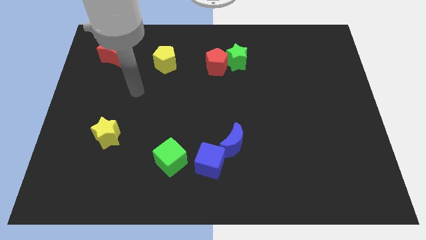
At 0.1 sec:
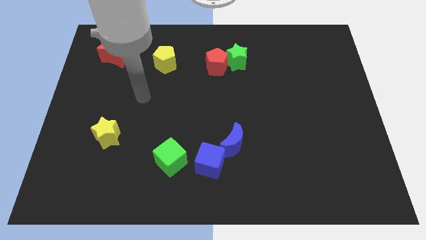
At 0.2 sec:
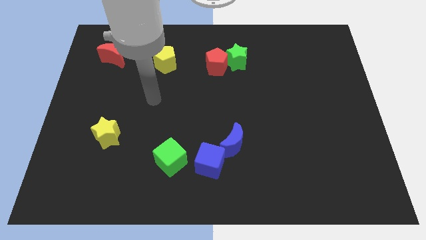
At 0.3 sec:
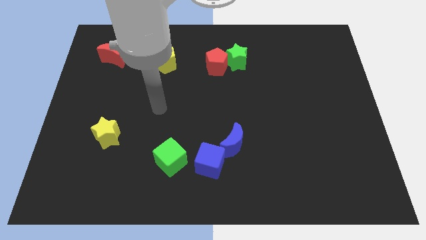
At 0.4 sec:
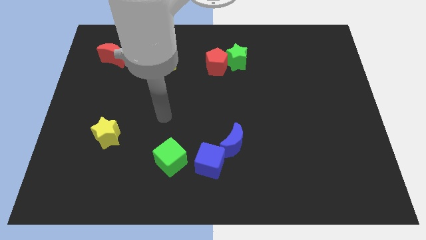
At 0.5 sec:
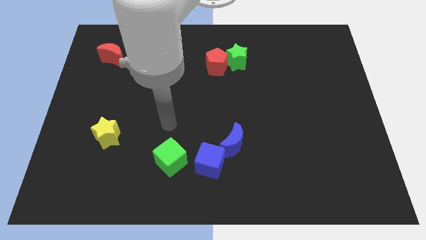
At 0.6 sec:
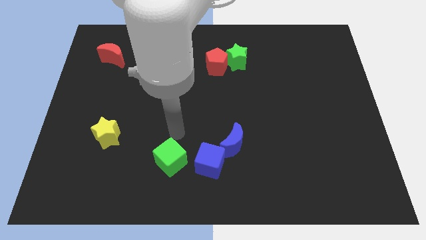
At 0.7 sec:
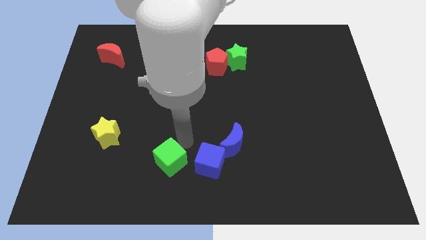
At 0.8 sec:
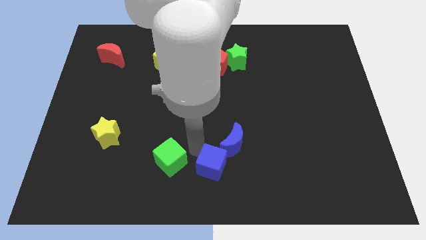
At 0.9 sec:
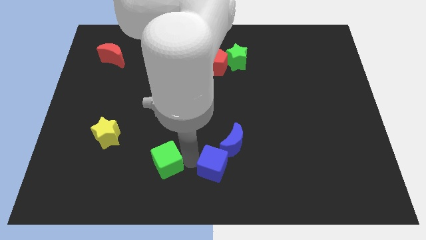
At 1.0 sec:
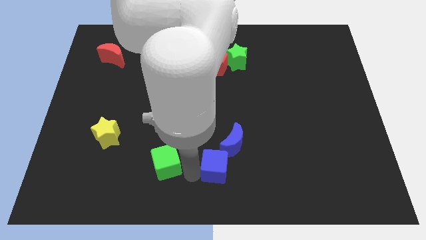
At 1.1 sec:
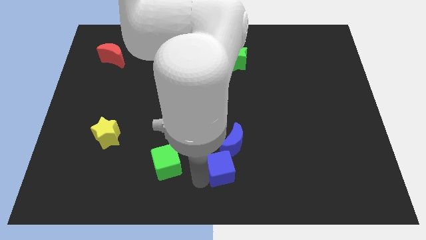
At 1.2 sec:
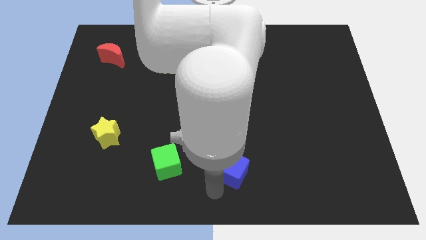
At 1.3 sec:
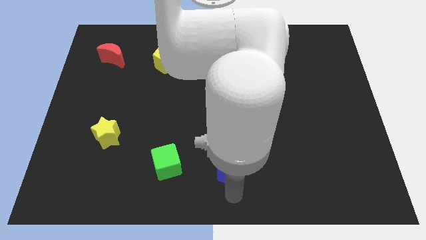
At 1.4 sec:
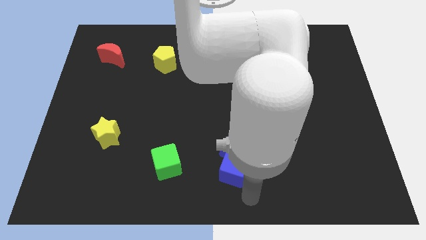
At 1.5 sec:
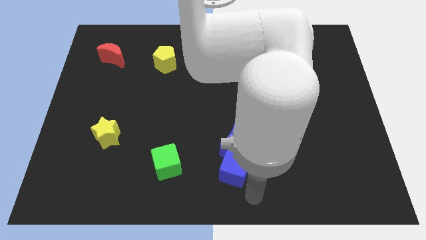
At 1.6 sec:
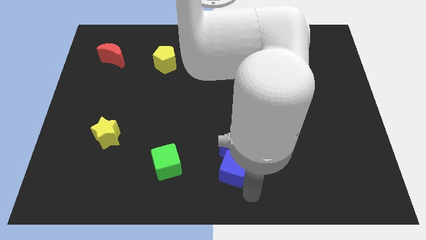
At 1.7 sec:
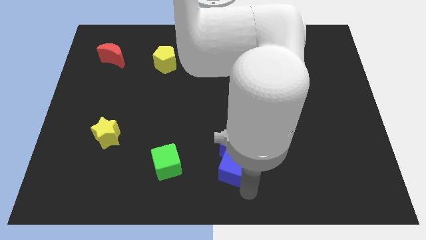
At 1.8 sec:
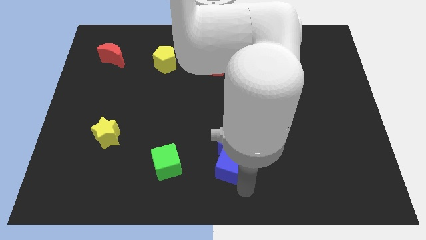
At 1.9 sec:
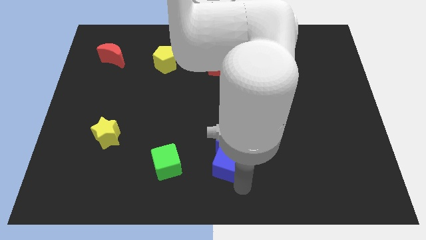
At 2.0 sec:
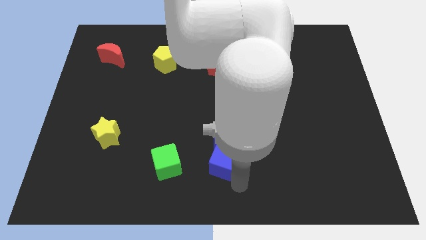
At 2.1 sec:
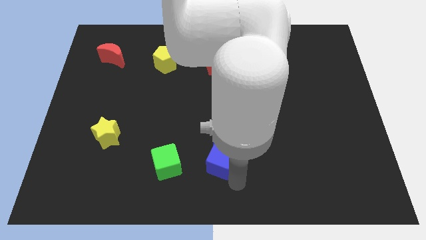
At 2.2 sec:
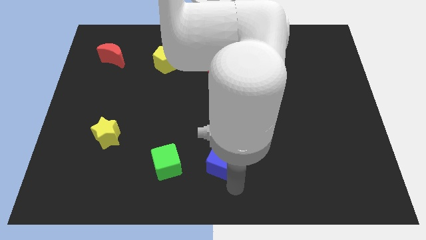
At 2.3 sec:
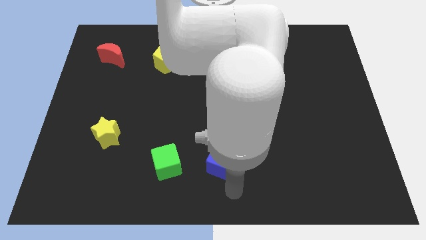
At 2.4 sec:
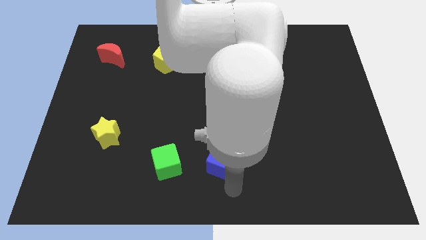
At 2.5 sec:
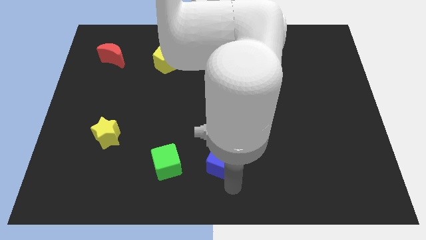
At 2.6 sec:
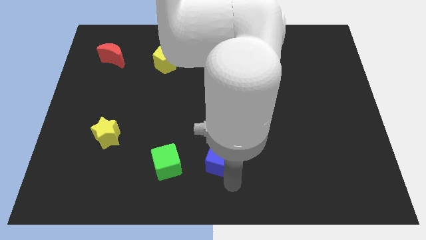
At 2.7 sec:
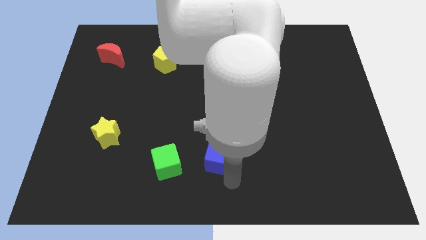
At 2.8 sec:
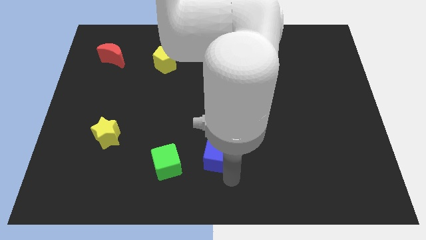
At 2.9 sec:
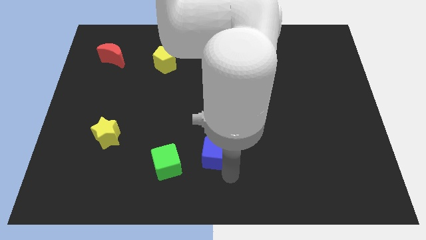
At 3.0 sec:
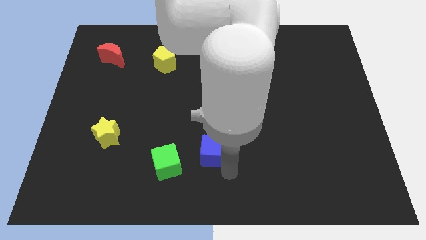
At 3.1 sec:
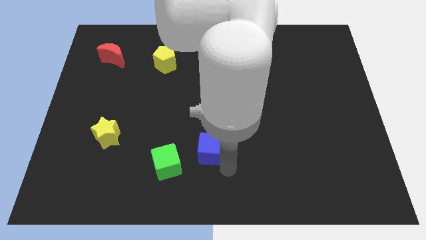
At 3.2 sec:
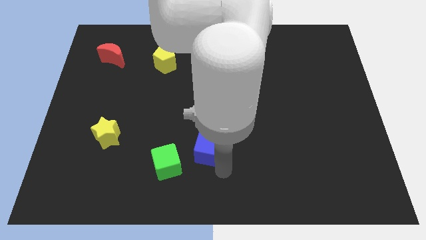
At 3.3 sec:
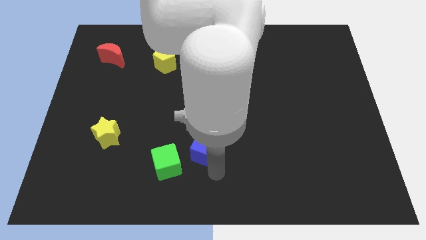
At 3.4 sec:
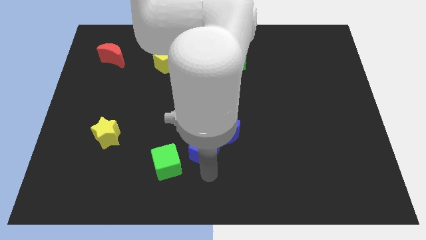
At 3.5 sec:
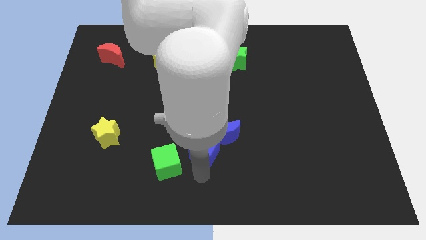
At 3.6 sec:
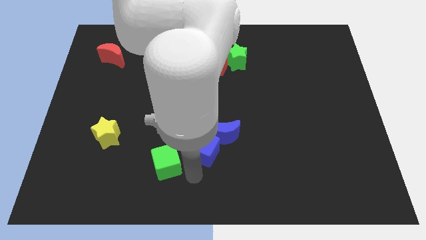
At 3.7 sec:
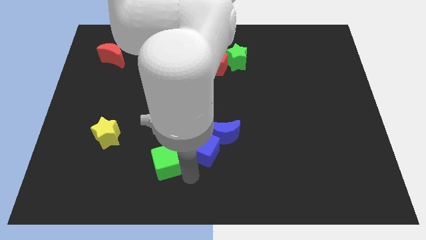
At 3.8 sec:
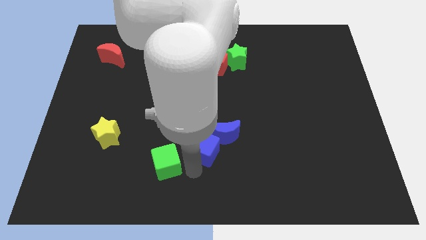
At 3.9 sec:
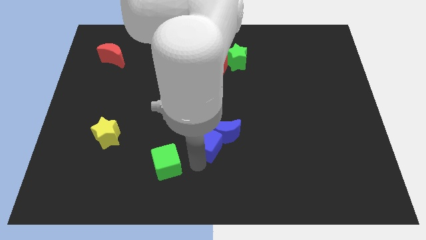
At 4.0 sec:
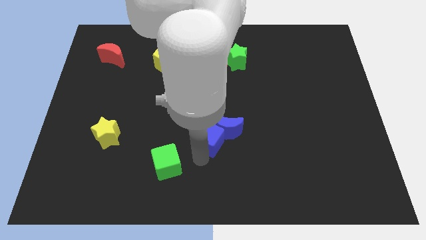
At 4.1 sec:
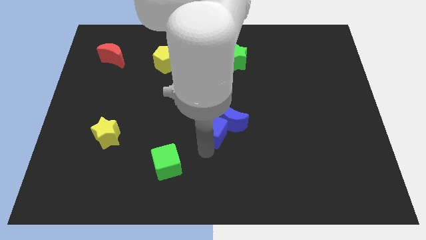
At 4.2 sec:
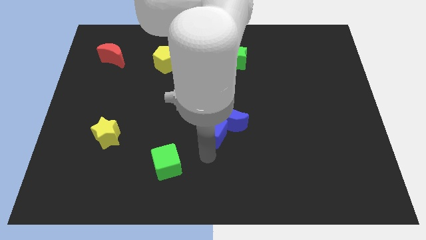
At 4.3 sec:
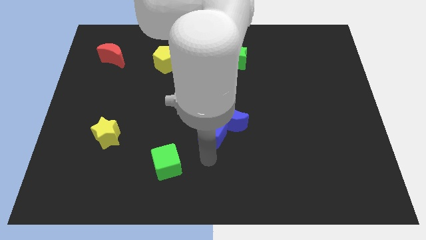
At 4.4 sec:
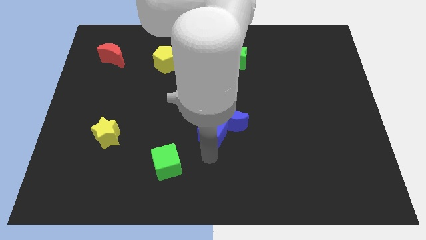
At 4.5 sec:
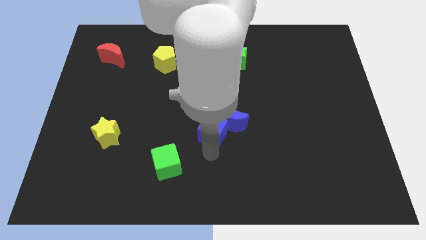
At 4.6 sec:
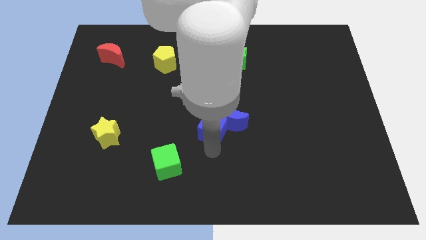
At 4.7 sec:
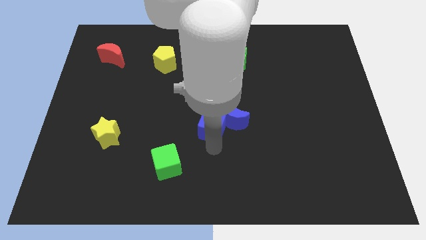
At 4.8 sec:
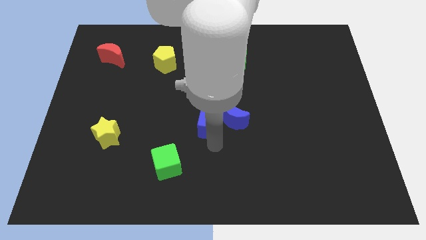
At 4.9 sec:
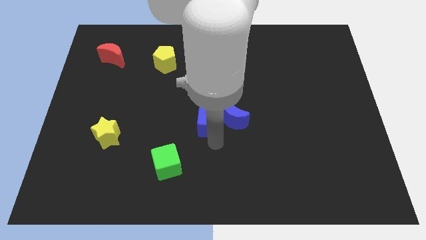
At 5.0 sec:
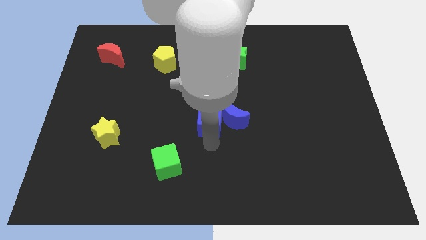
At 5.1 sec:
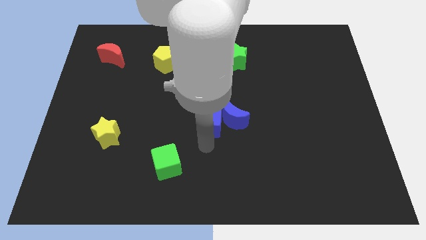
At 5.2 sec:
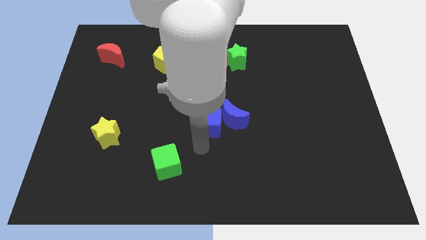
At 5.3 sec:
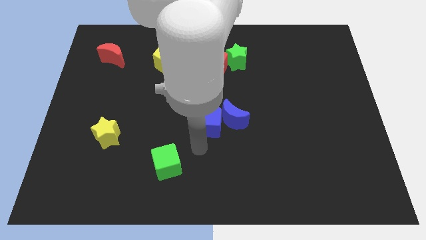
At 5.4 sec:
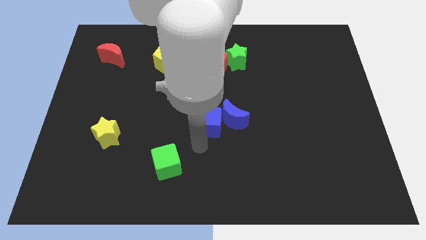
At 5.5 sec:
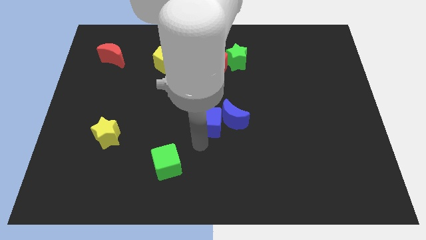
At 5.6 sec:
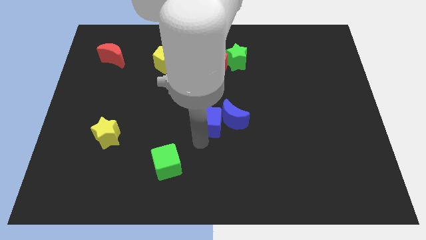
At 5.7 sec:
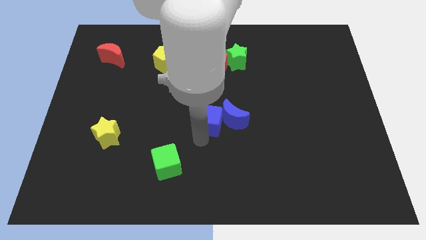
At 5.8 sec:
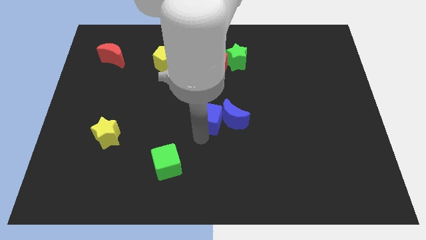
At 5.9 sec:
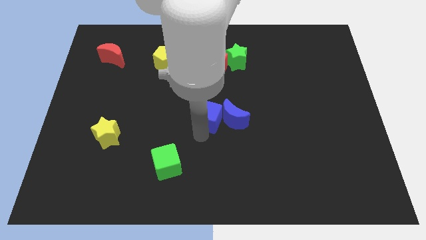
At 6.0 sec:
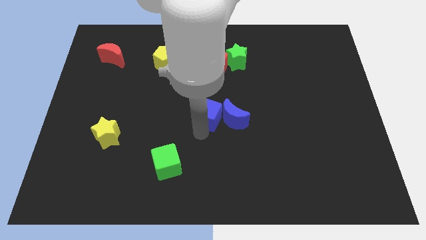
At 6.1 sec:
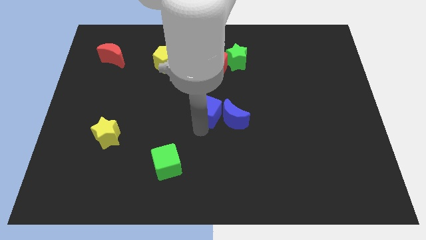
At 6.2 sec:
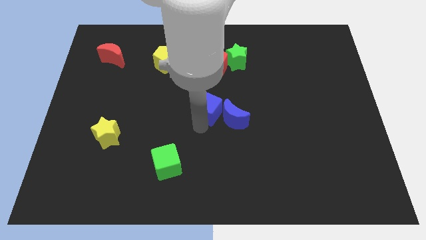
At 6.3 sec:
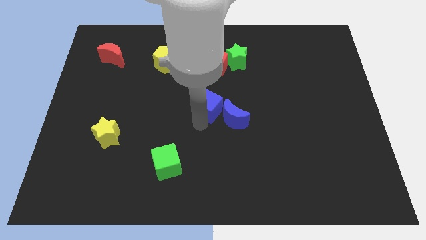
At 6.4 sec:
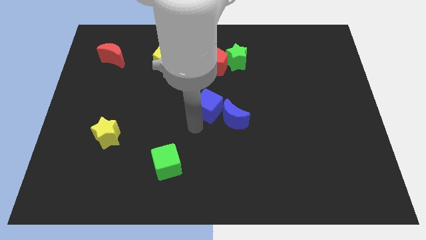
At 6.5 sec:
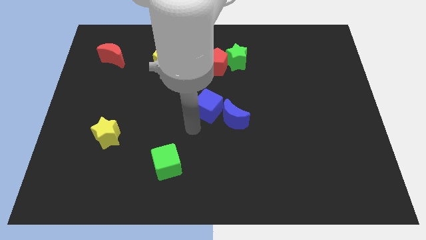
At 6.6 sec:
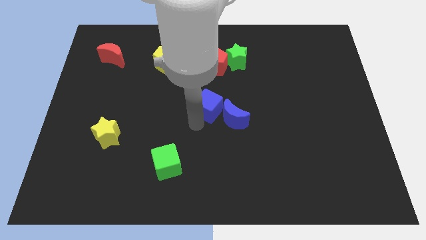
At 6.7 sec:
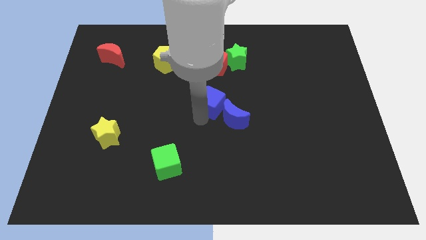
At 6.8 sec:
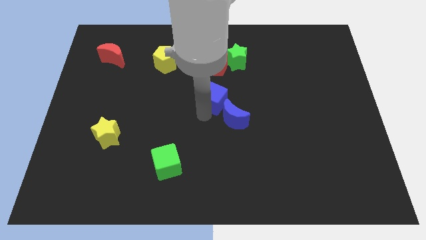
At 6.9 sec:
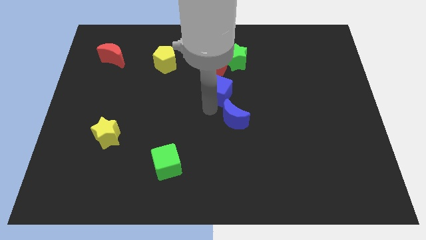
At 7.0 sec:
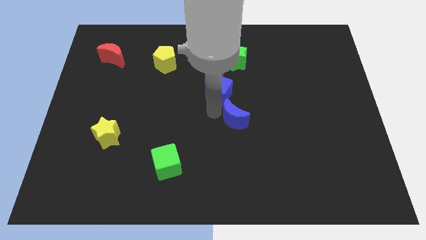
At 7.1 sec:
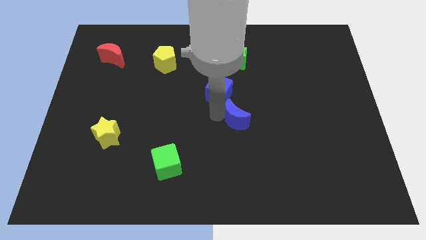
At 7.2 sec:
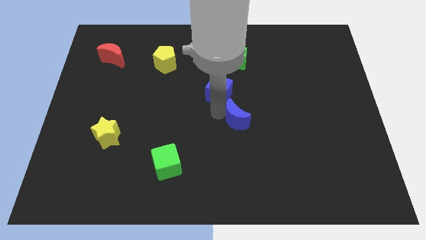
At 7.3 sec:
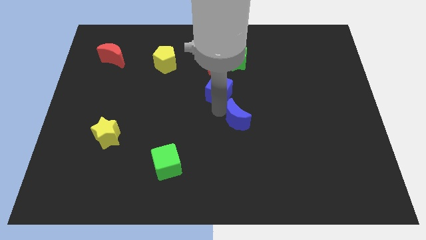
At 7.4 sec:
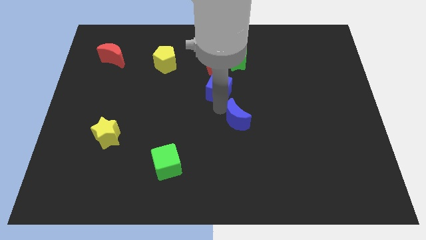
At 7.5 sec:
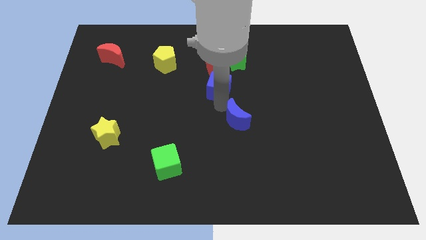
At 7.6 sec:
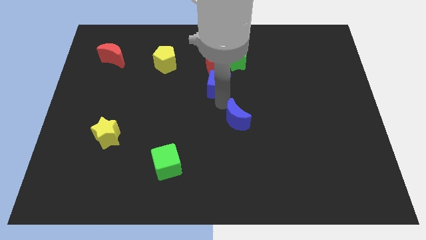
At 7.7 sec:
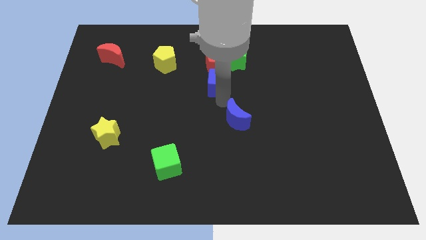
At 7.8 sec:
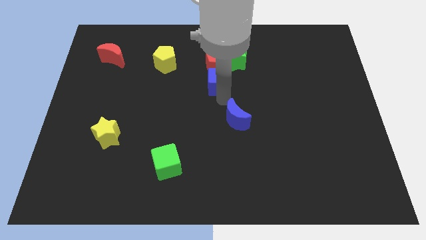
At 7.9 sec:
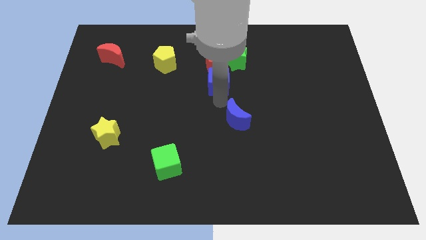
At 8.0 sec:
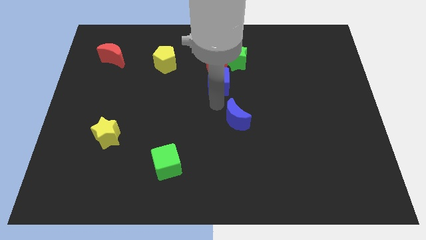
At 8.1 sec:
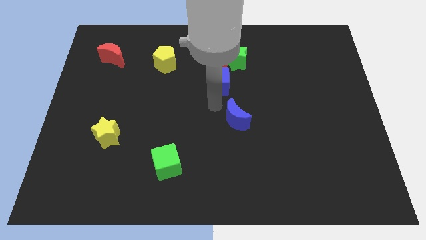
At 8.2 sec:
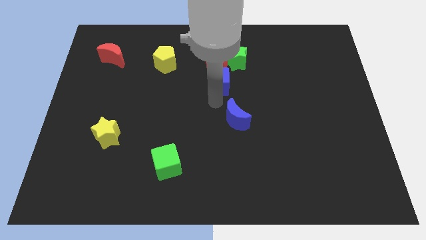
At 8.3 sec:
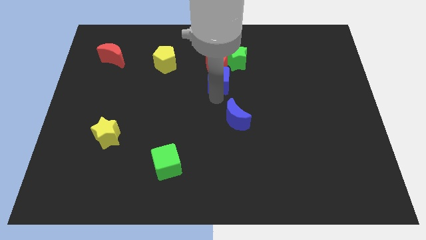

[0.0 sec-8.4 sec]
push the blue cube to the red pentagon
